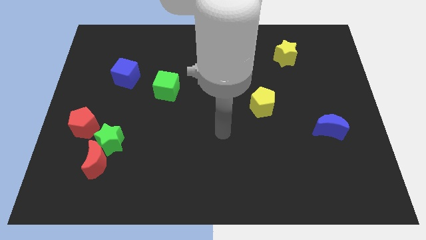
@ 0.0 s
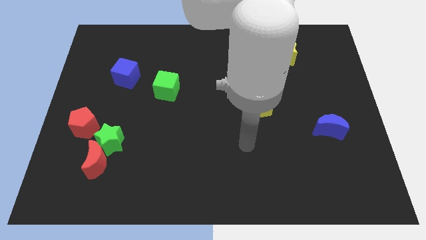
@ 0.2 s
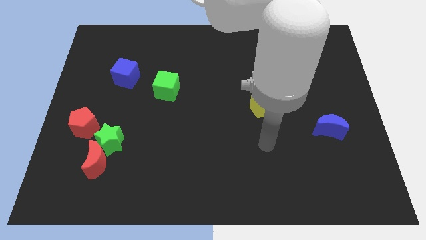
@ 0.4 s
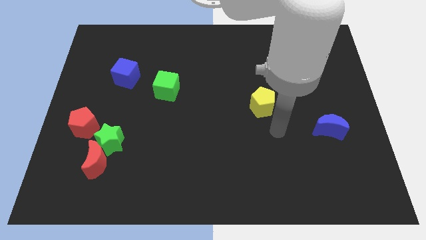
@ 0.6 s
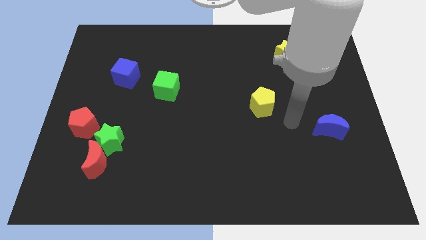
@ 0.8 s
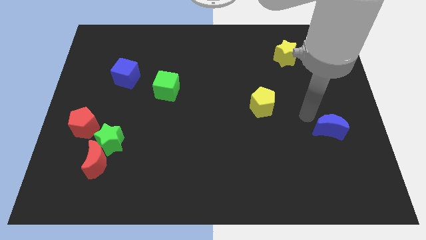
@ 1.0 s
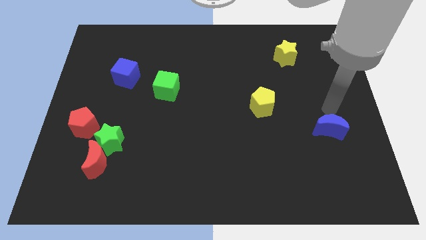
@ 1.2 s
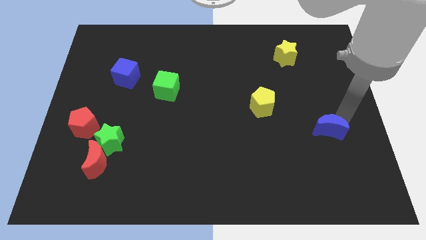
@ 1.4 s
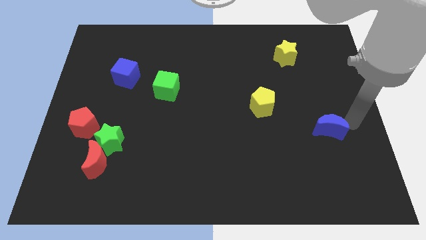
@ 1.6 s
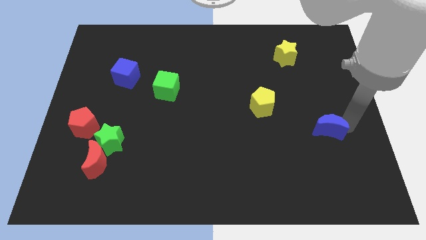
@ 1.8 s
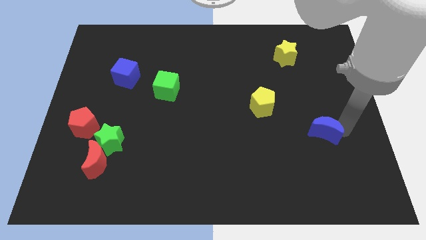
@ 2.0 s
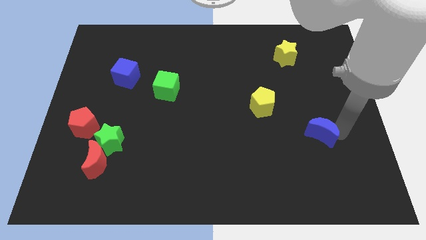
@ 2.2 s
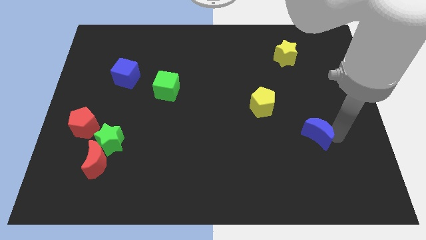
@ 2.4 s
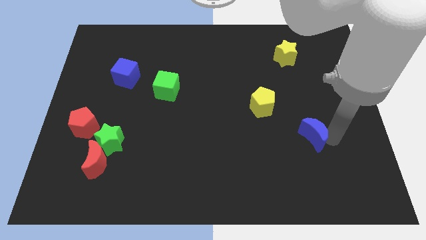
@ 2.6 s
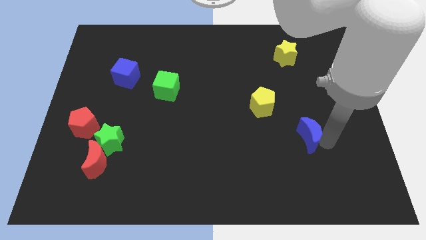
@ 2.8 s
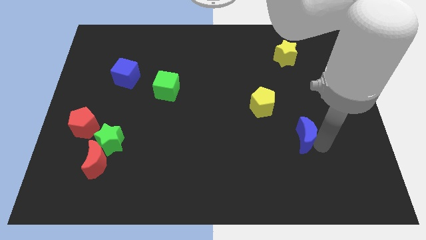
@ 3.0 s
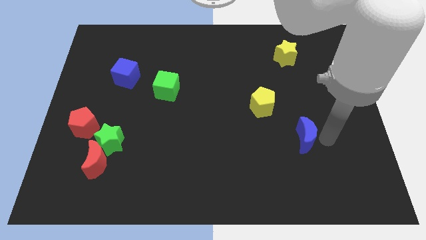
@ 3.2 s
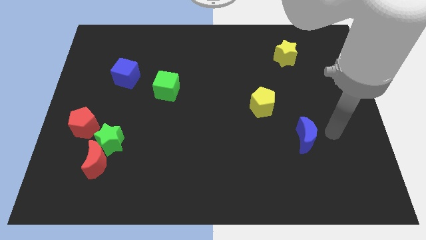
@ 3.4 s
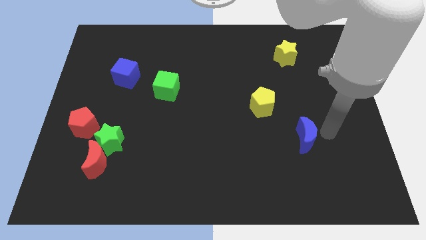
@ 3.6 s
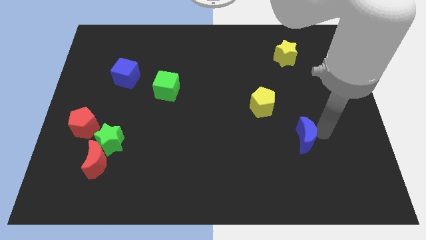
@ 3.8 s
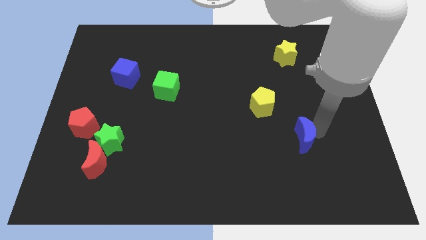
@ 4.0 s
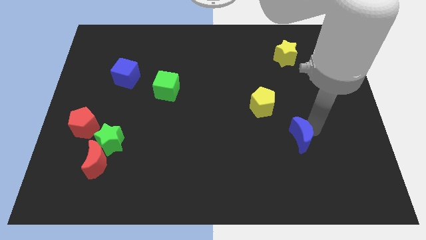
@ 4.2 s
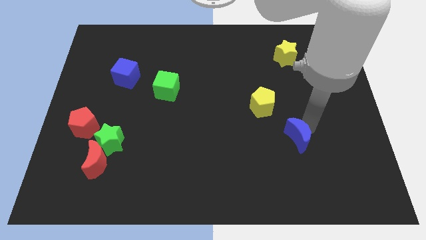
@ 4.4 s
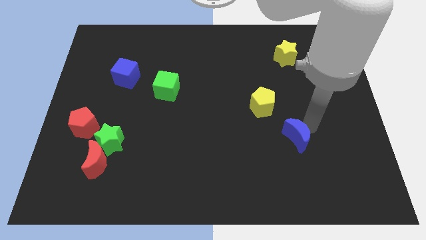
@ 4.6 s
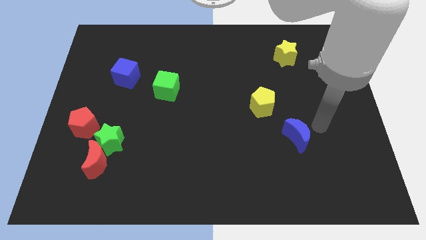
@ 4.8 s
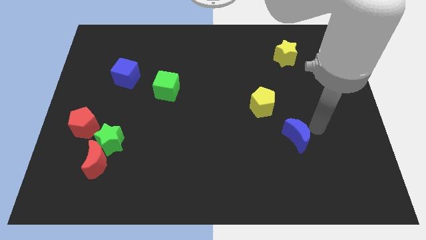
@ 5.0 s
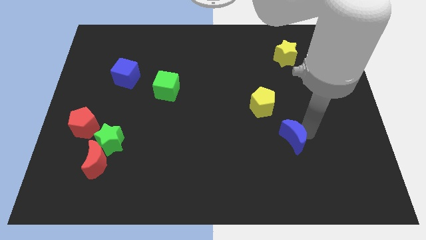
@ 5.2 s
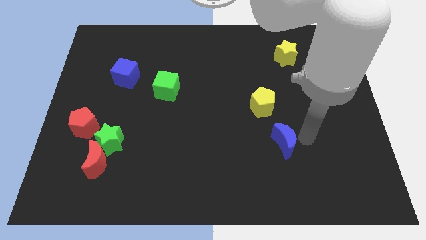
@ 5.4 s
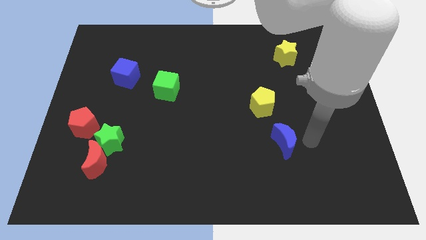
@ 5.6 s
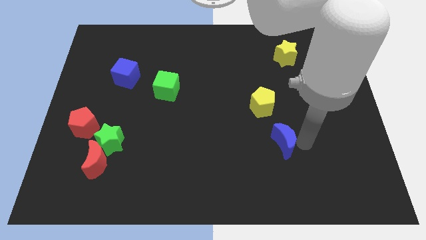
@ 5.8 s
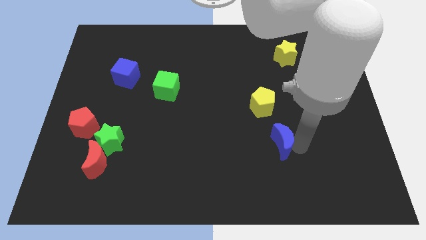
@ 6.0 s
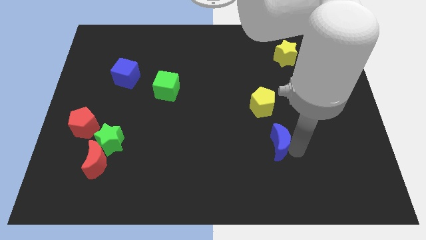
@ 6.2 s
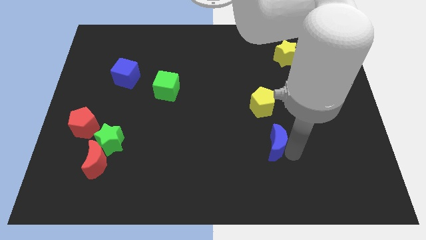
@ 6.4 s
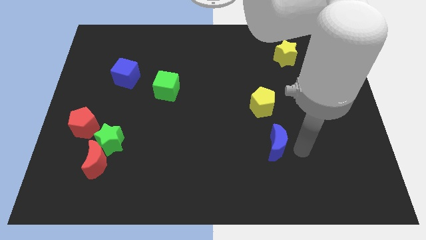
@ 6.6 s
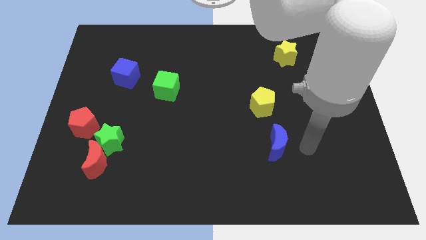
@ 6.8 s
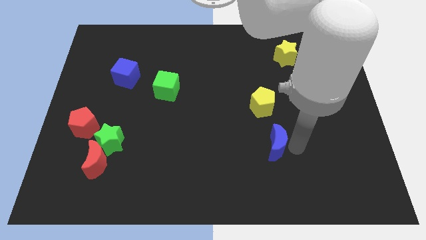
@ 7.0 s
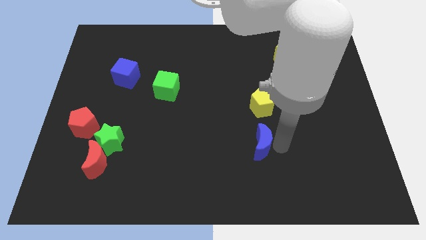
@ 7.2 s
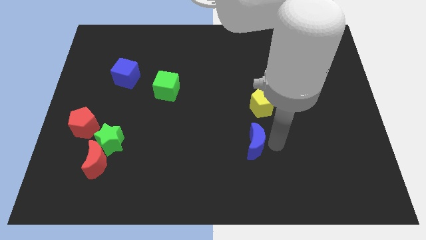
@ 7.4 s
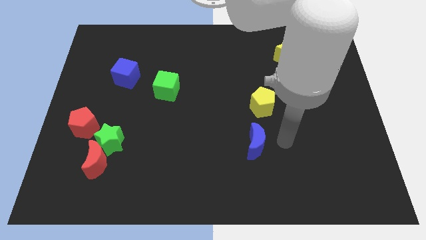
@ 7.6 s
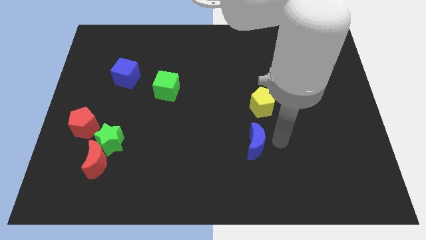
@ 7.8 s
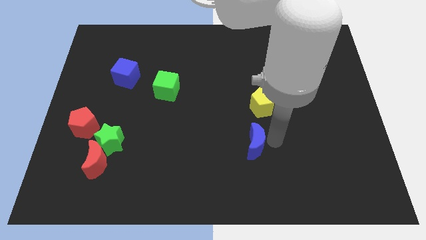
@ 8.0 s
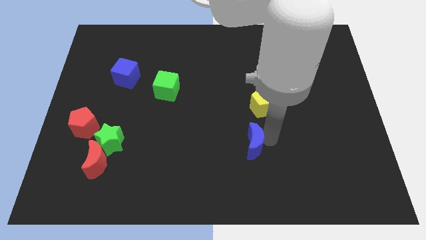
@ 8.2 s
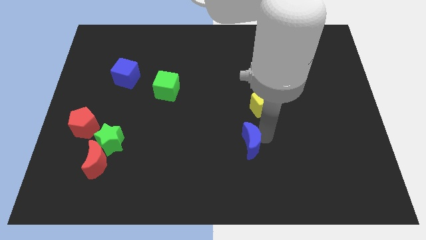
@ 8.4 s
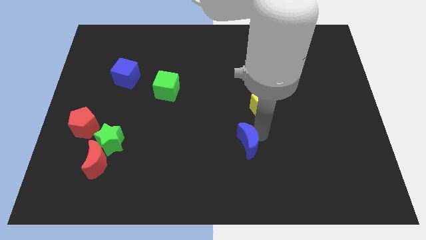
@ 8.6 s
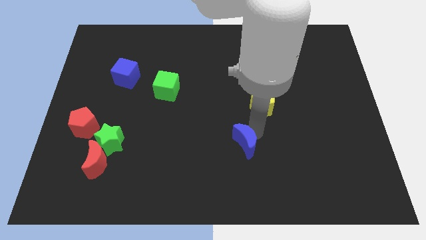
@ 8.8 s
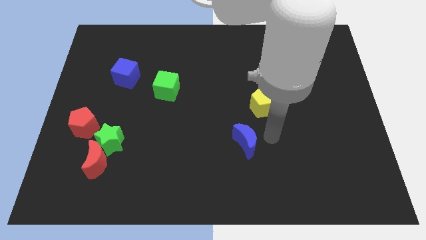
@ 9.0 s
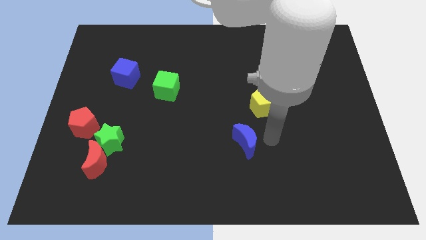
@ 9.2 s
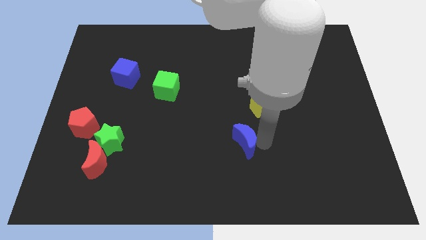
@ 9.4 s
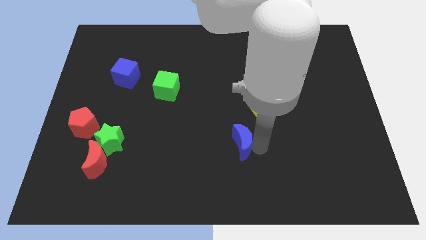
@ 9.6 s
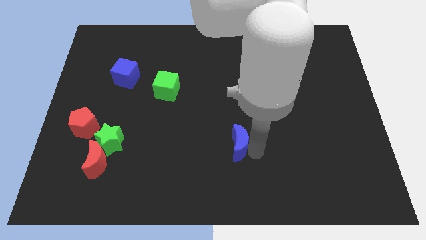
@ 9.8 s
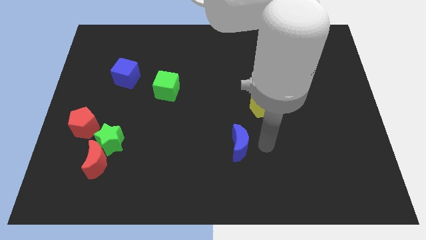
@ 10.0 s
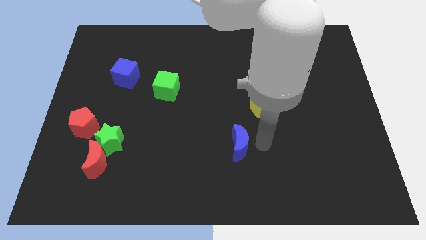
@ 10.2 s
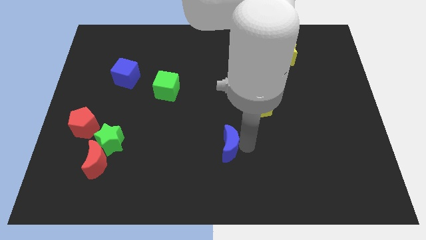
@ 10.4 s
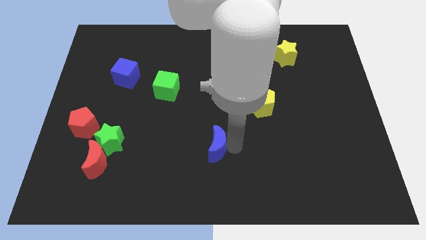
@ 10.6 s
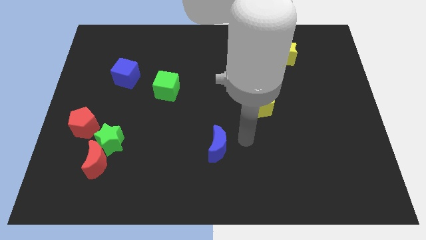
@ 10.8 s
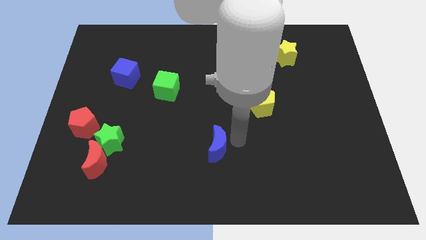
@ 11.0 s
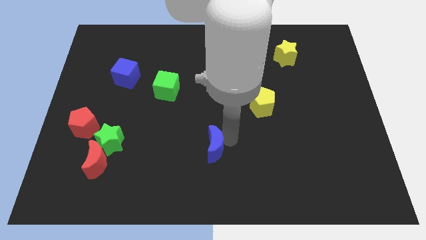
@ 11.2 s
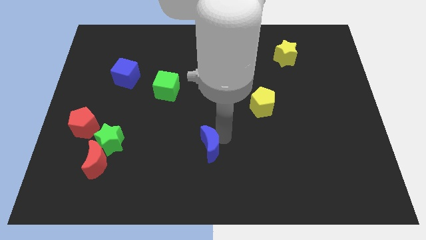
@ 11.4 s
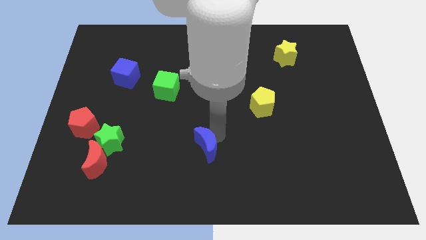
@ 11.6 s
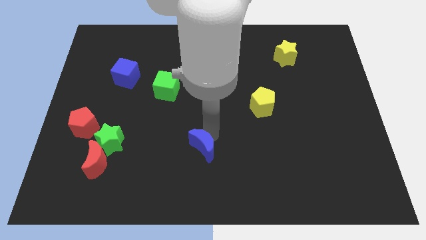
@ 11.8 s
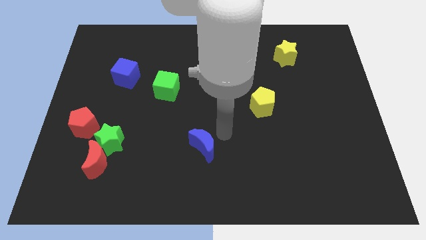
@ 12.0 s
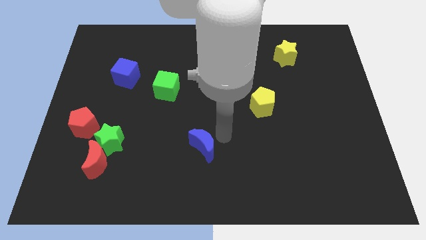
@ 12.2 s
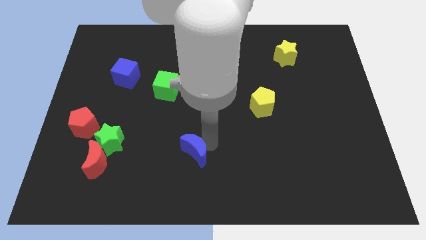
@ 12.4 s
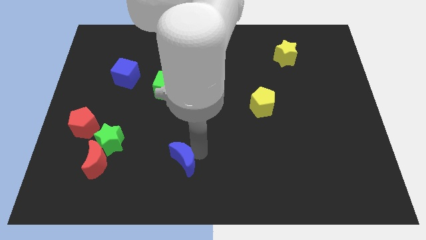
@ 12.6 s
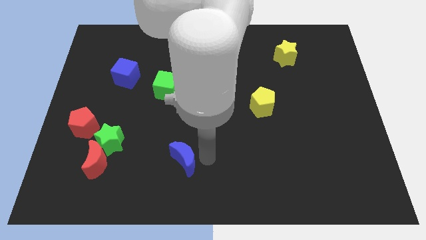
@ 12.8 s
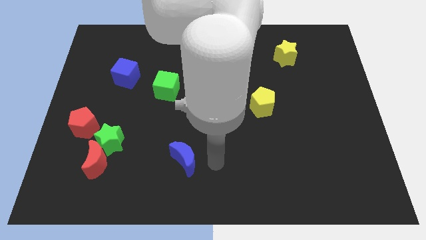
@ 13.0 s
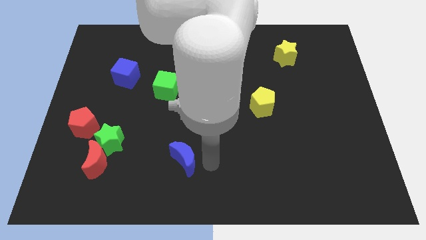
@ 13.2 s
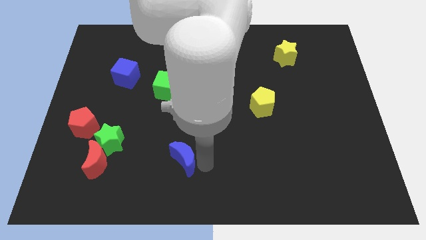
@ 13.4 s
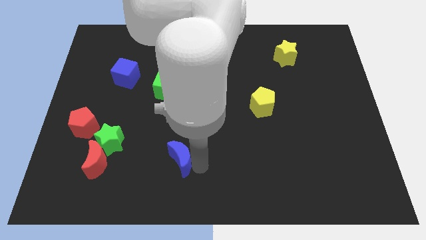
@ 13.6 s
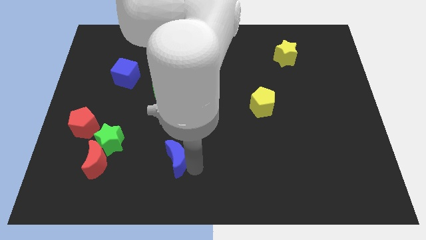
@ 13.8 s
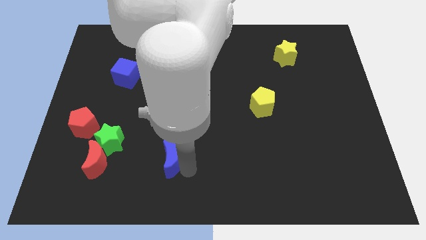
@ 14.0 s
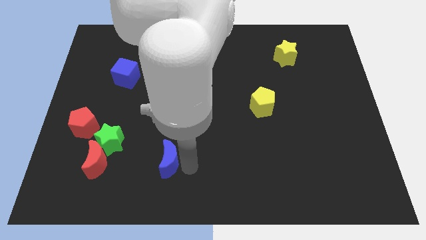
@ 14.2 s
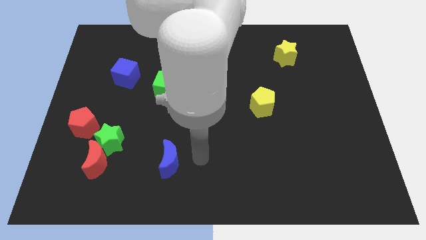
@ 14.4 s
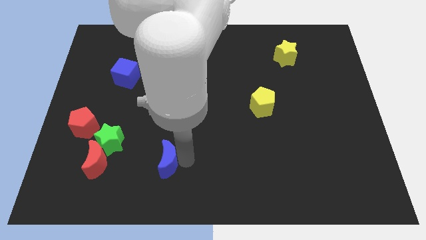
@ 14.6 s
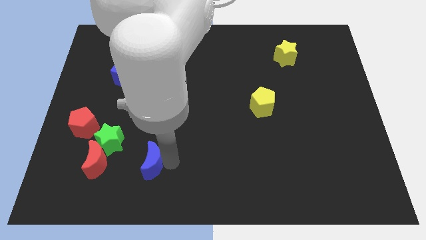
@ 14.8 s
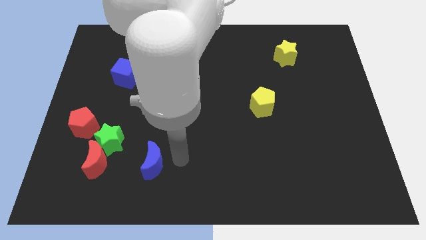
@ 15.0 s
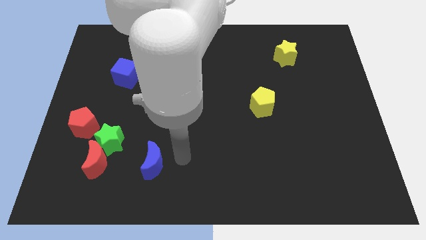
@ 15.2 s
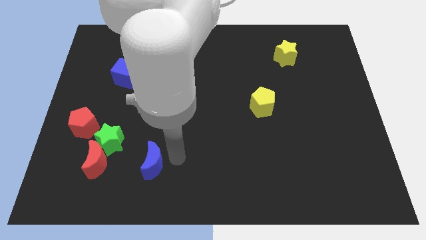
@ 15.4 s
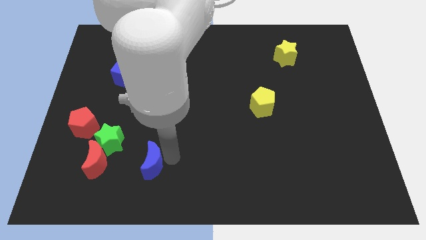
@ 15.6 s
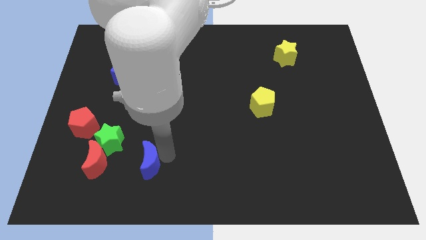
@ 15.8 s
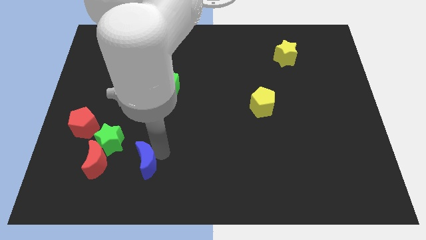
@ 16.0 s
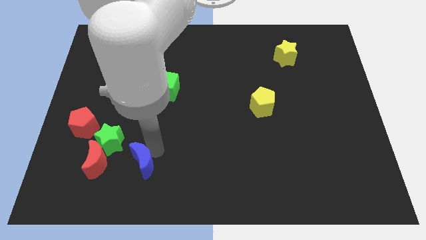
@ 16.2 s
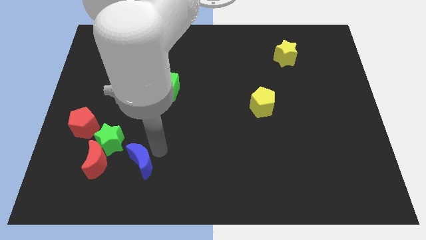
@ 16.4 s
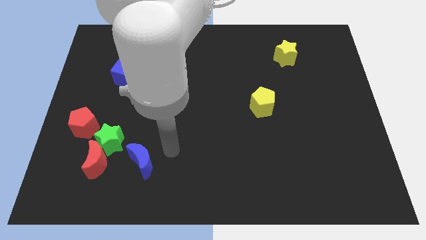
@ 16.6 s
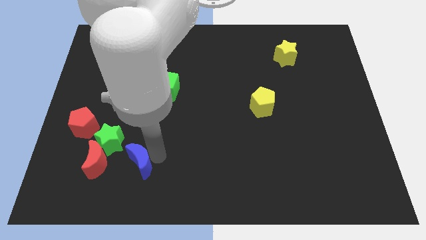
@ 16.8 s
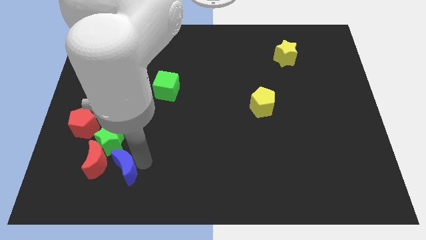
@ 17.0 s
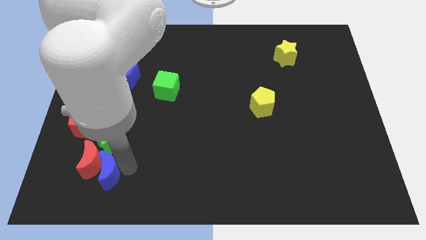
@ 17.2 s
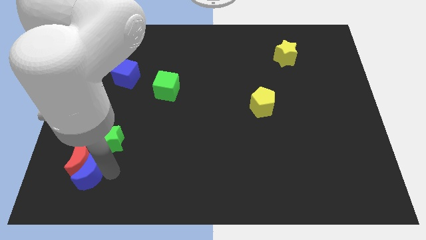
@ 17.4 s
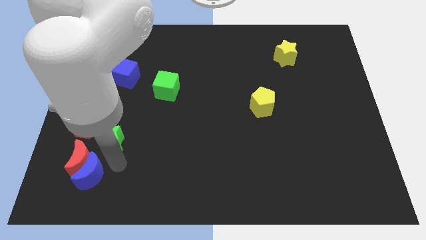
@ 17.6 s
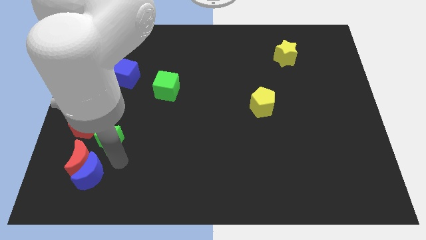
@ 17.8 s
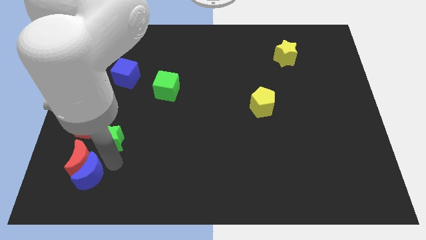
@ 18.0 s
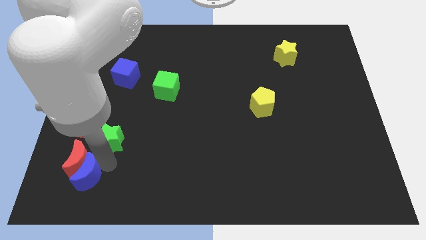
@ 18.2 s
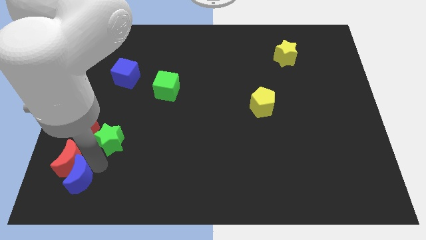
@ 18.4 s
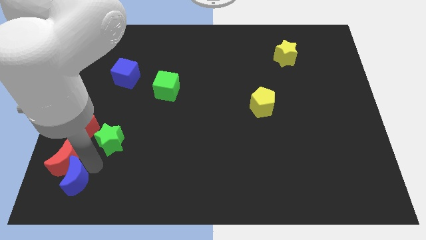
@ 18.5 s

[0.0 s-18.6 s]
move the blue moon to the lower left corner
